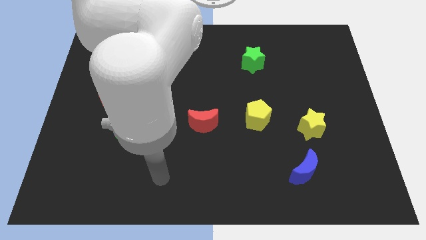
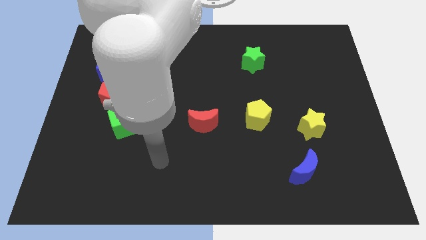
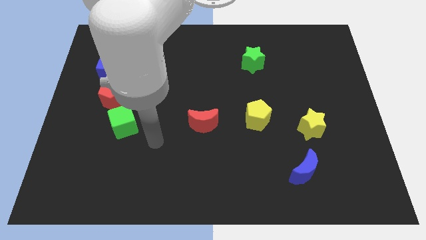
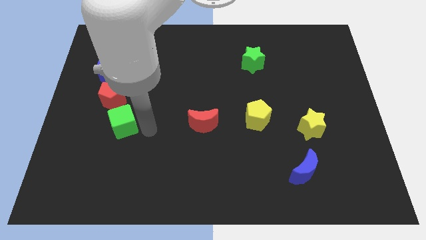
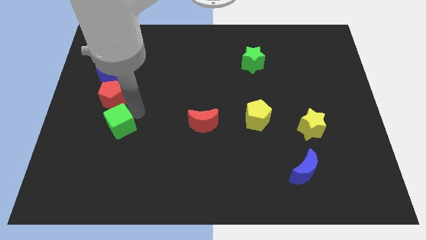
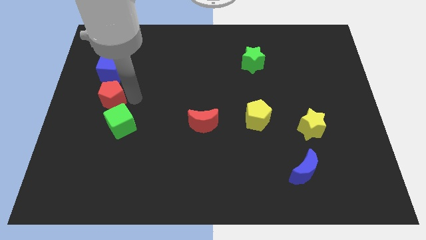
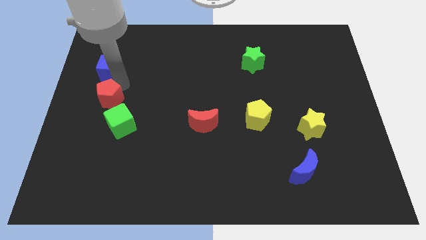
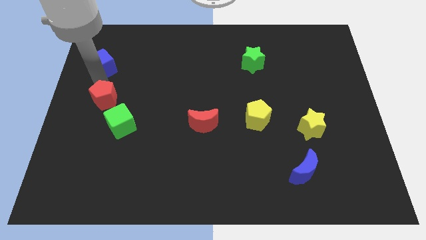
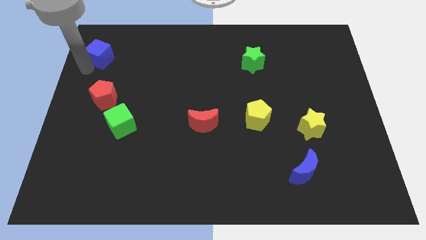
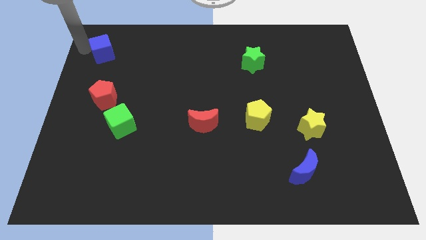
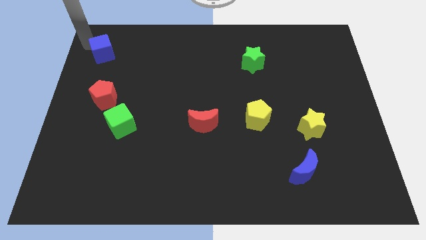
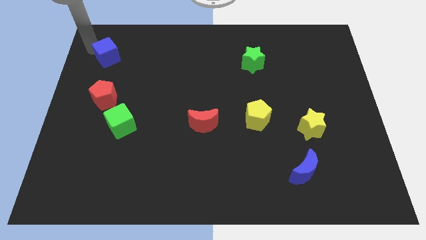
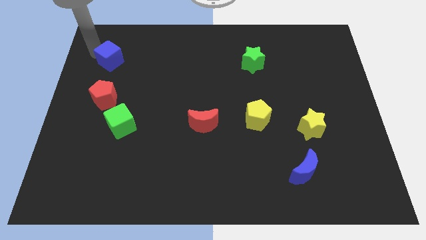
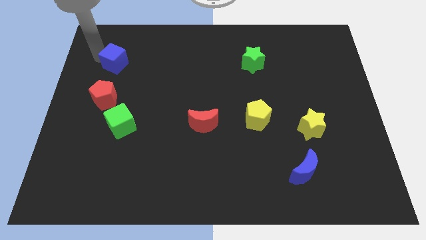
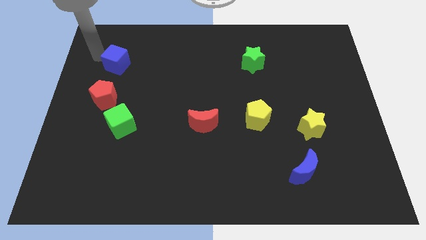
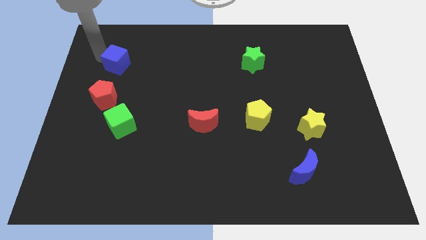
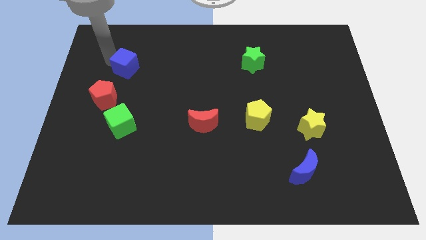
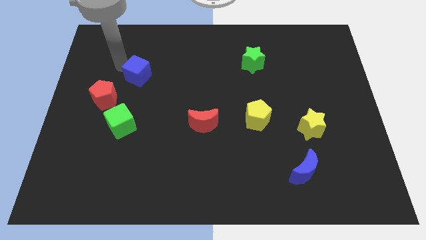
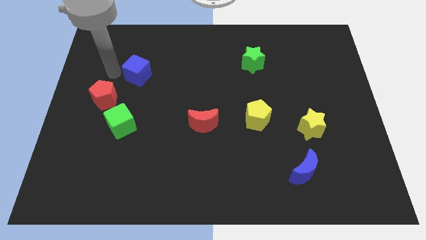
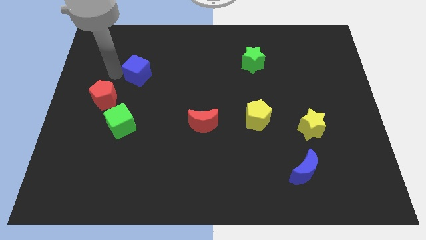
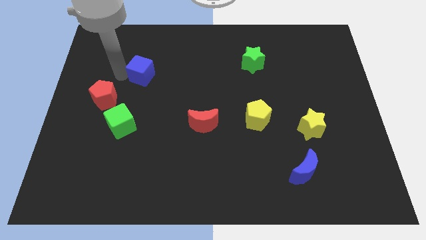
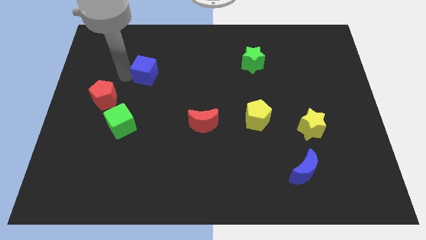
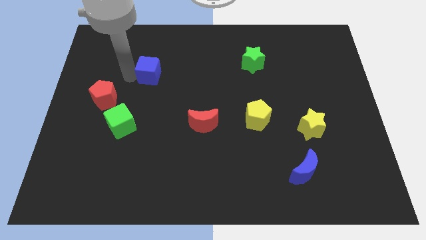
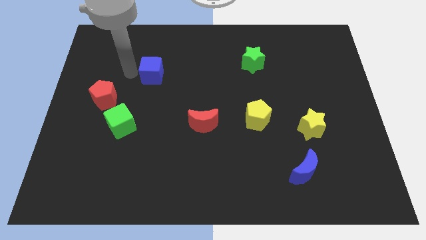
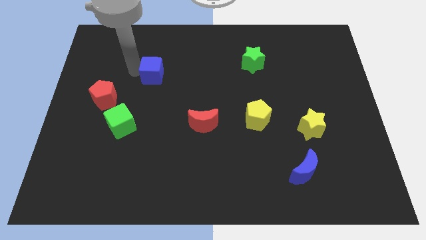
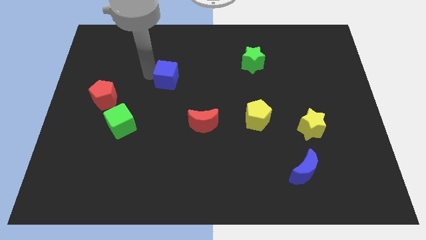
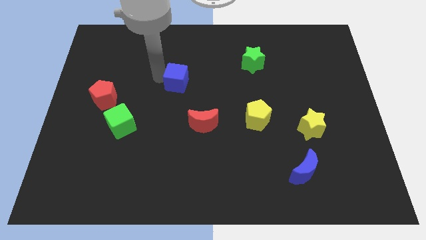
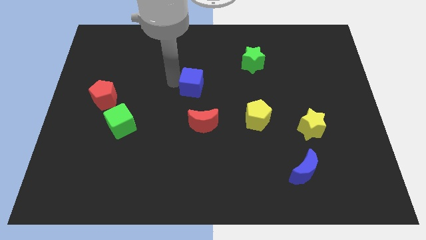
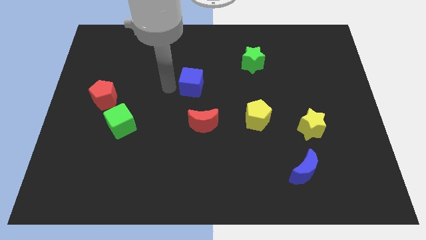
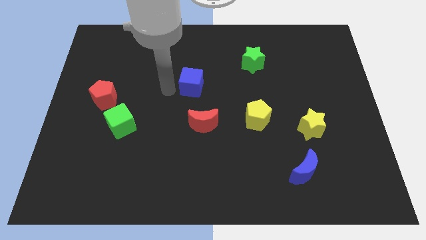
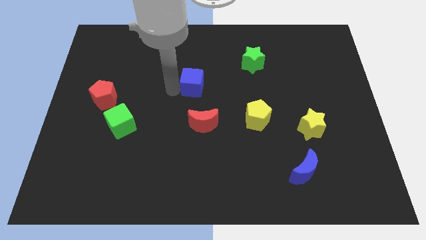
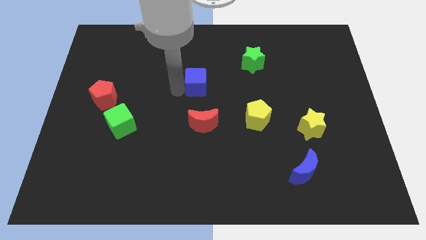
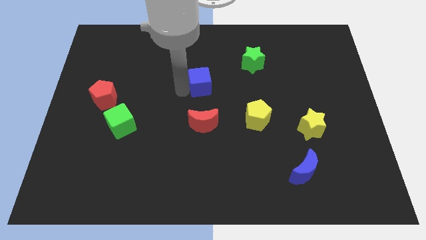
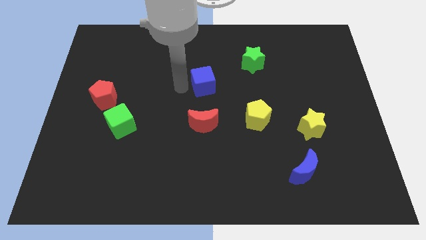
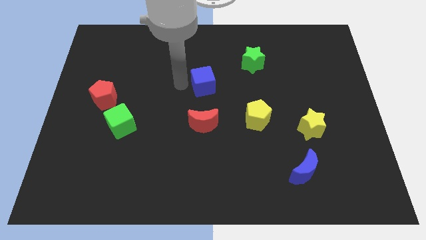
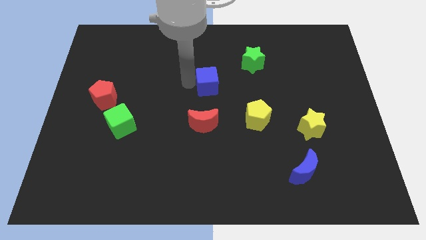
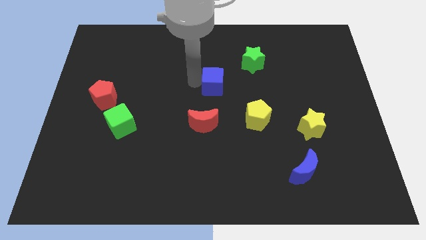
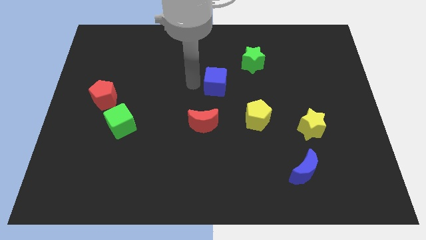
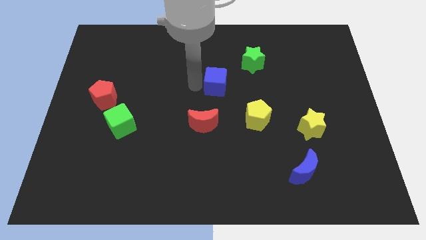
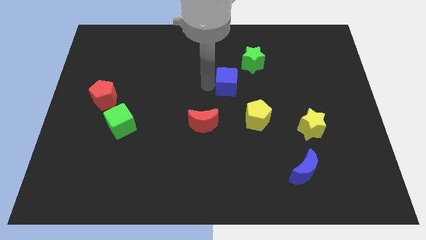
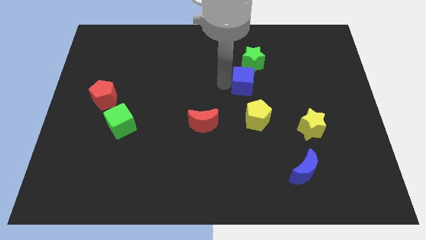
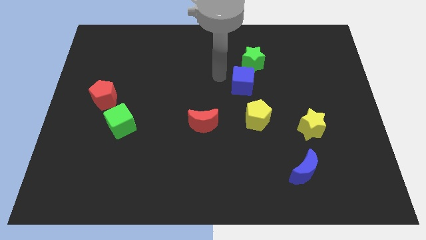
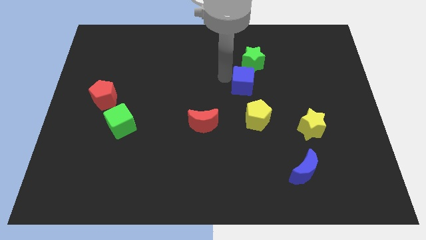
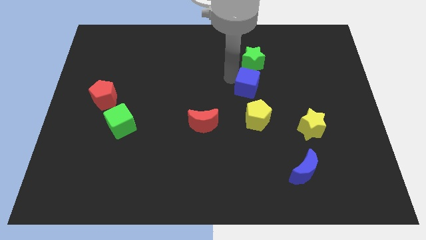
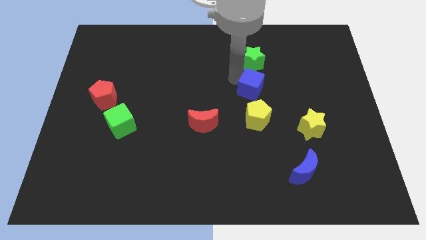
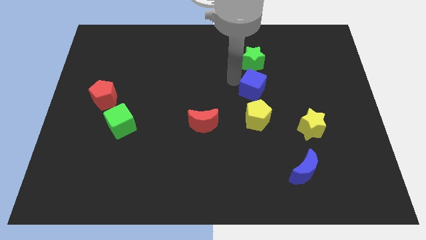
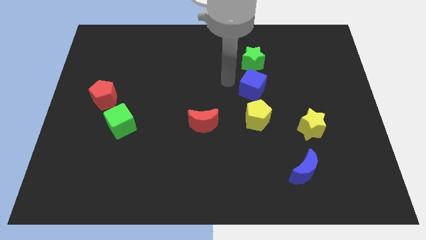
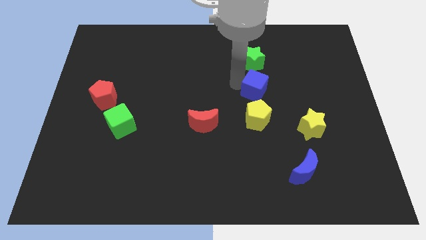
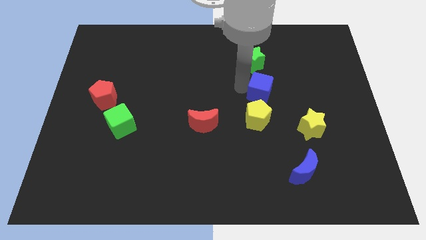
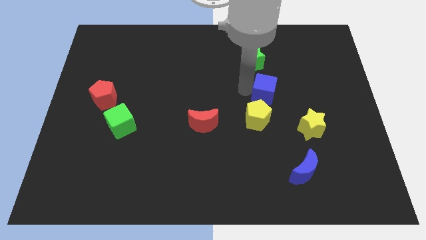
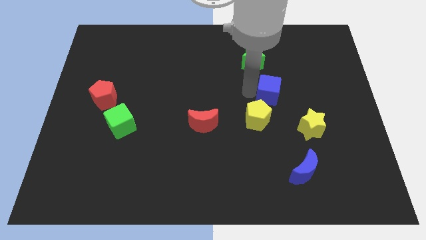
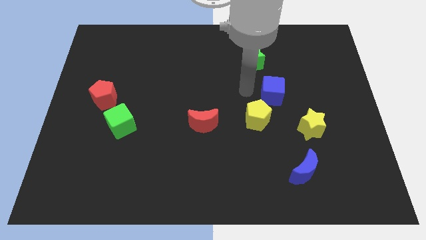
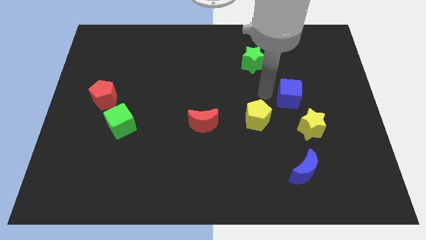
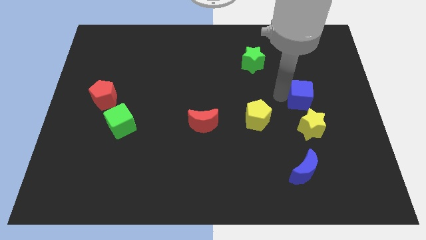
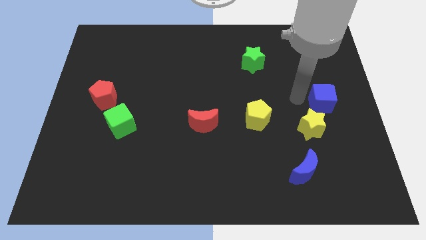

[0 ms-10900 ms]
move the blue cube to the center right

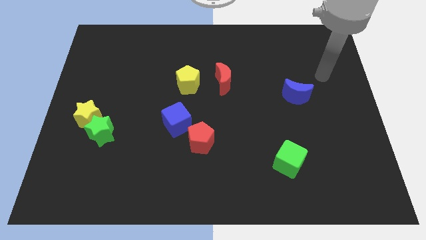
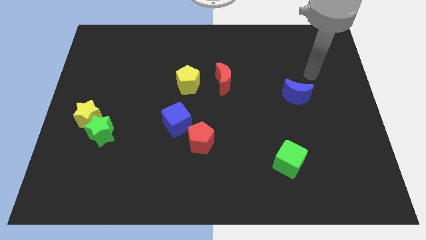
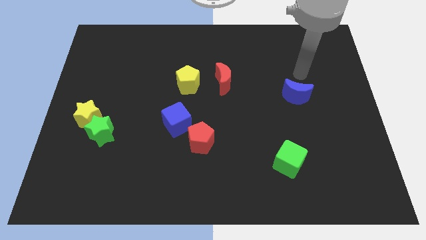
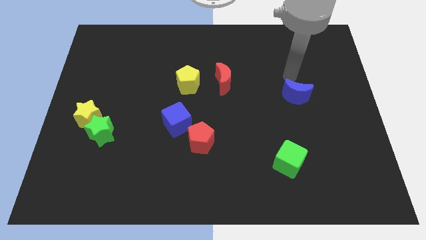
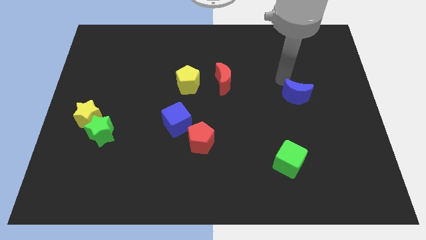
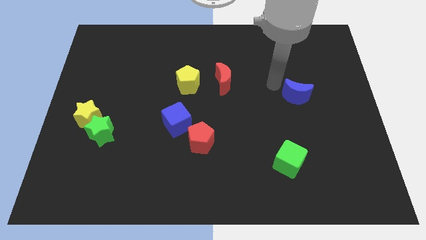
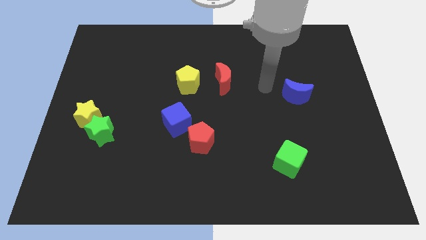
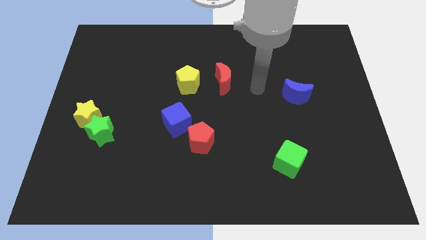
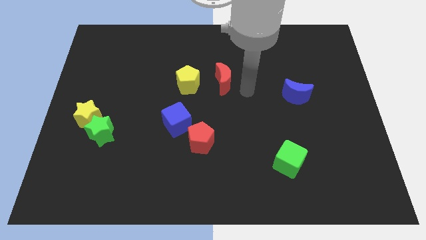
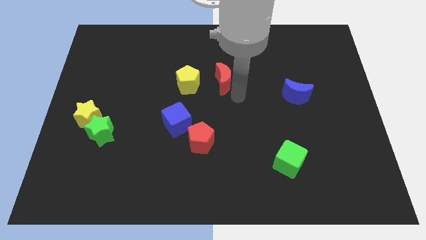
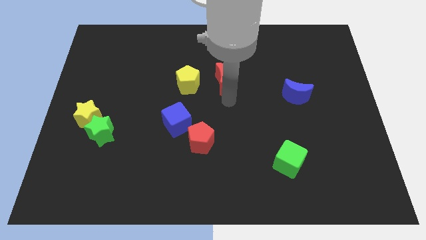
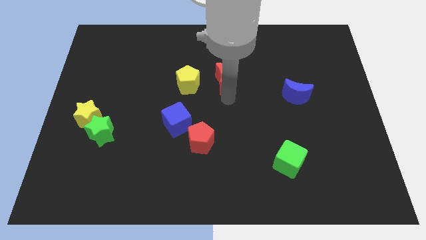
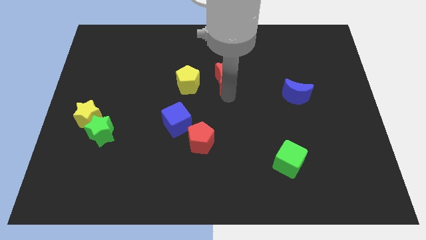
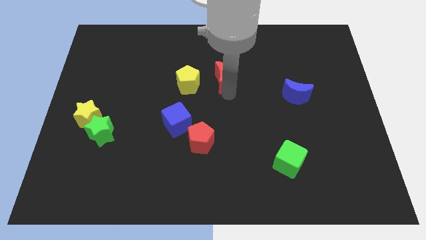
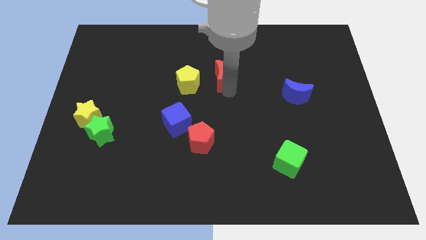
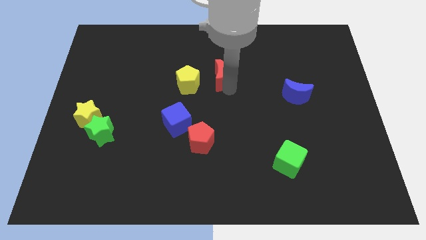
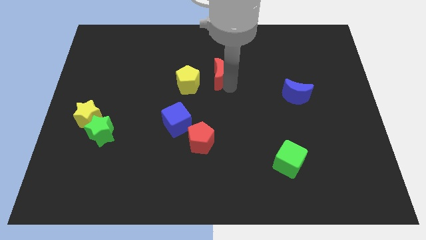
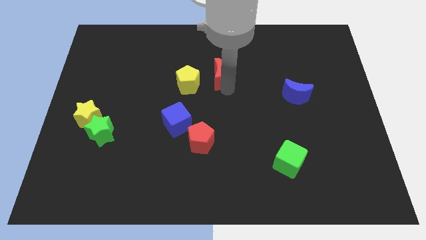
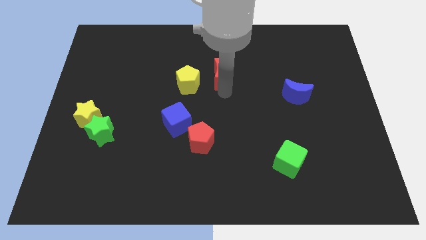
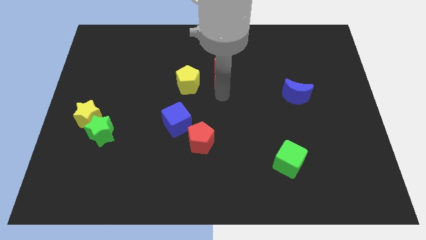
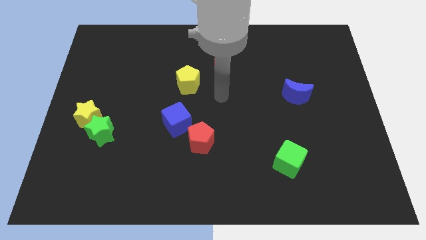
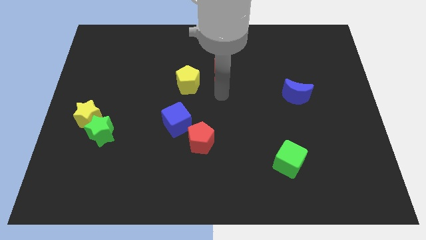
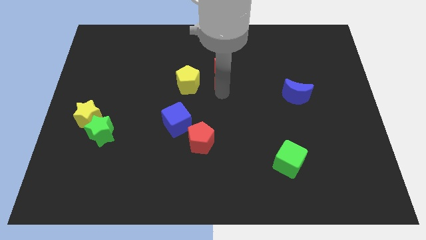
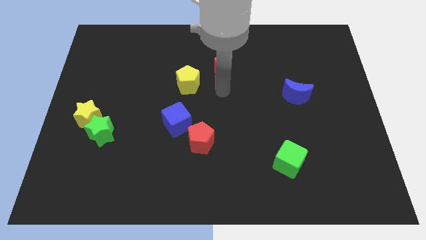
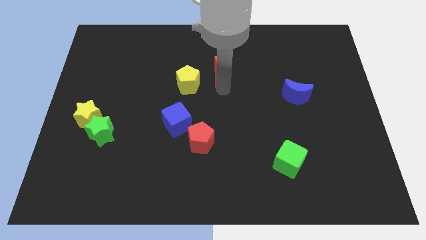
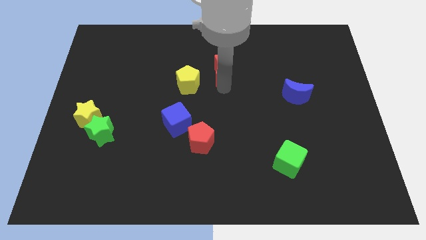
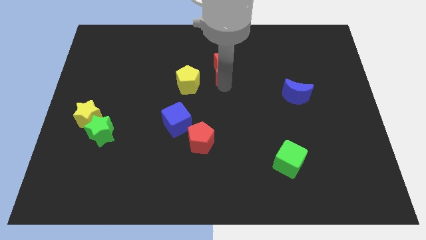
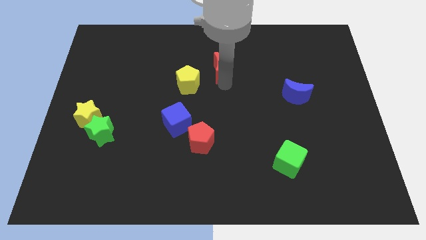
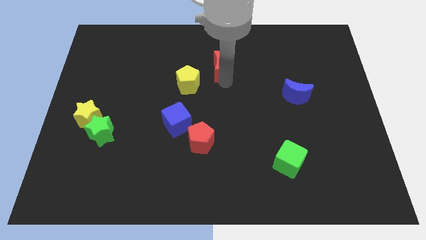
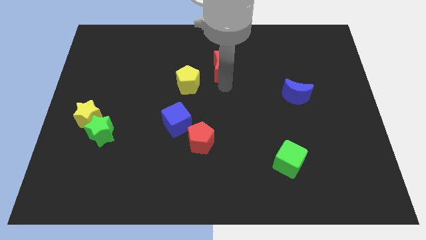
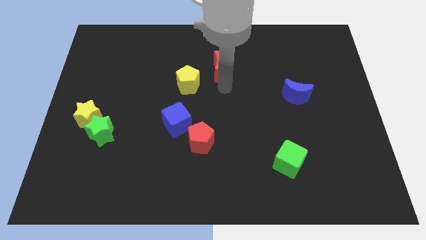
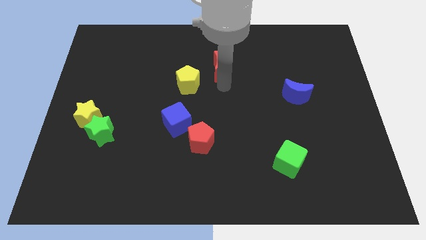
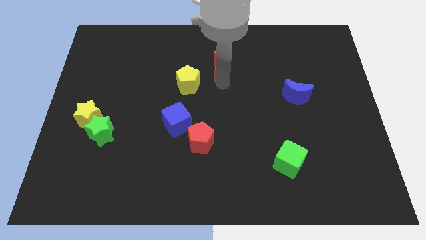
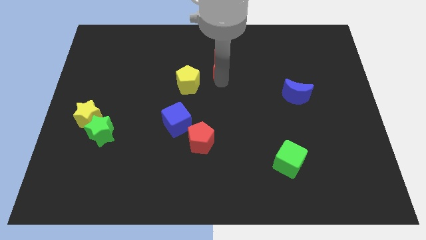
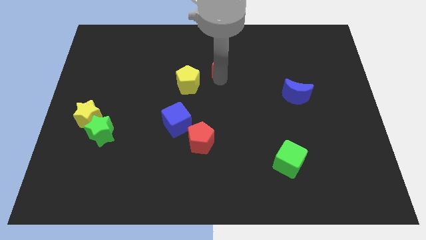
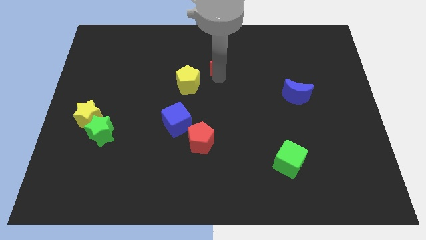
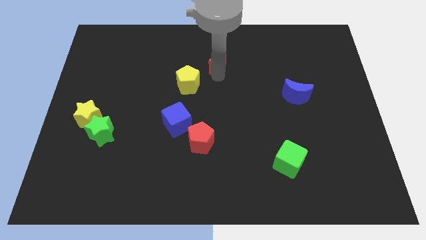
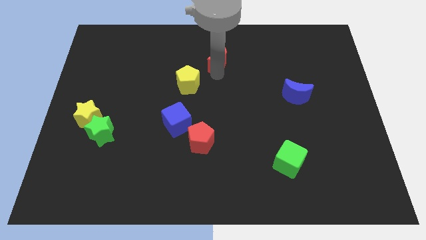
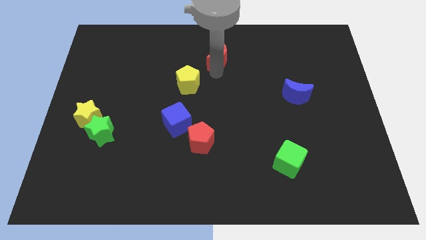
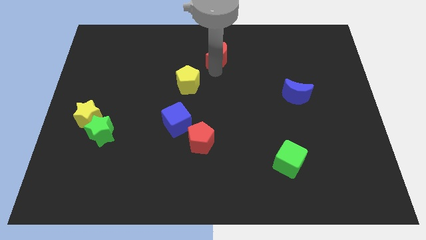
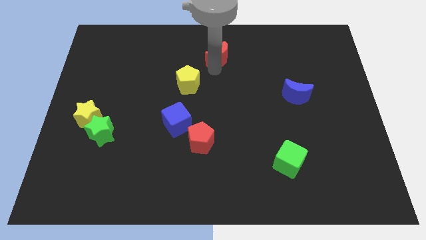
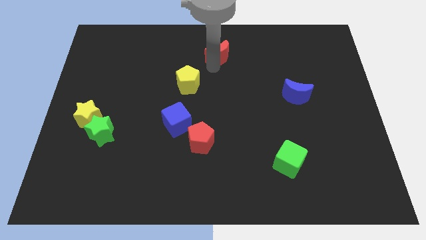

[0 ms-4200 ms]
move the red moon to the top side
